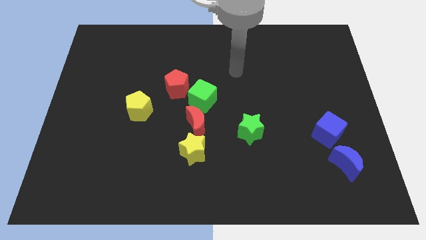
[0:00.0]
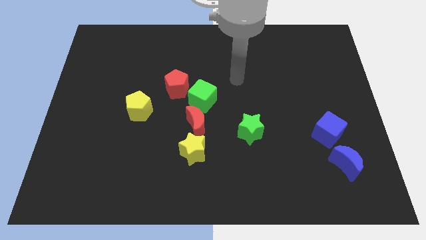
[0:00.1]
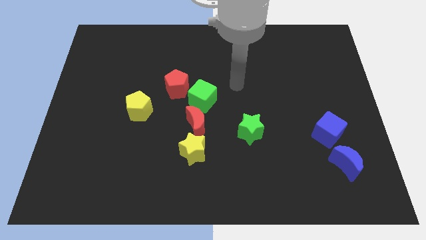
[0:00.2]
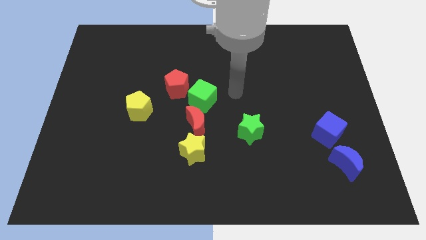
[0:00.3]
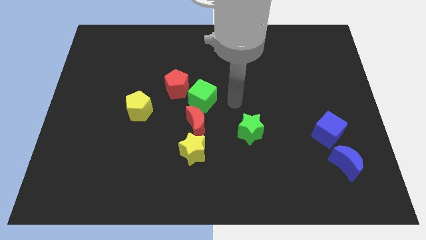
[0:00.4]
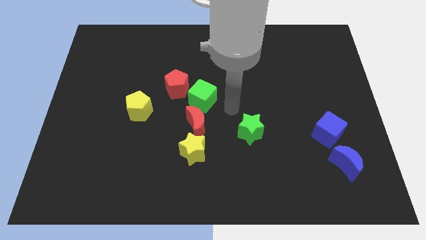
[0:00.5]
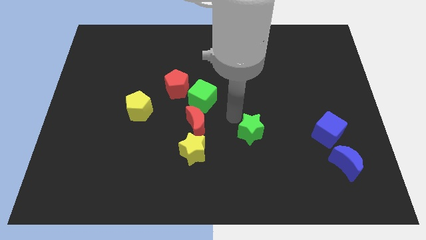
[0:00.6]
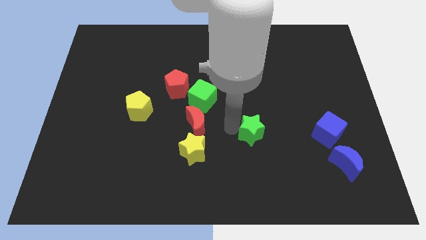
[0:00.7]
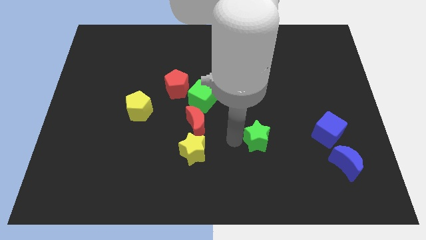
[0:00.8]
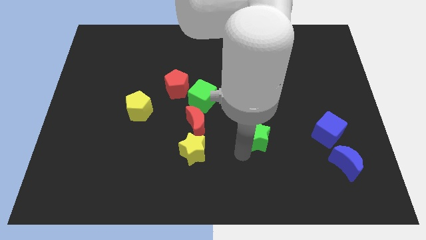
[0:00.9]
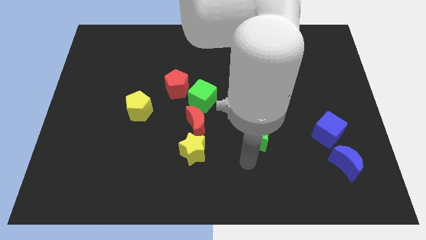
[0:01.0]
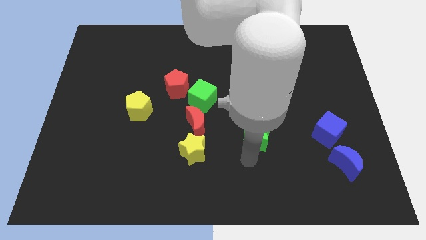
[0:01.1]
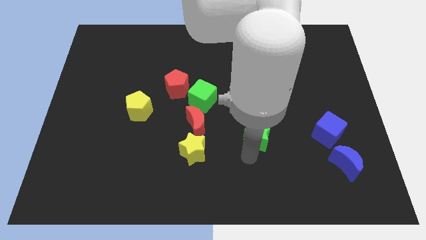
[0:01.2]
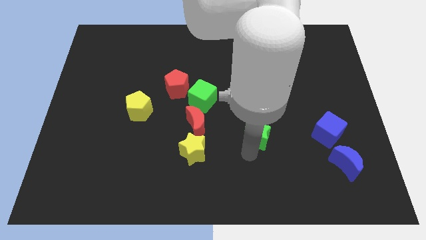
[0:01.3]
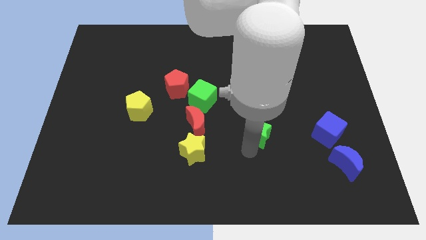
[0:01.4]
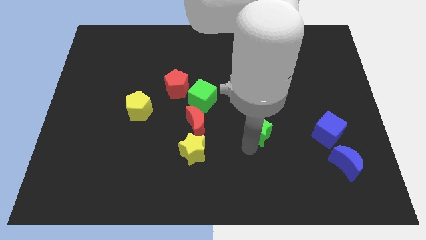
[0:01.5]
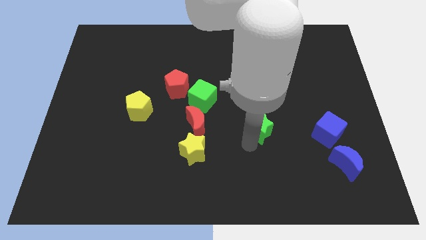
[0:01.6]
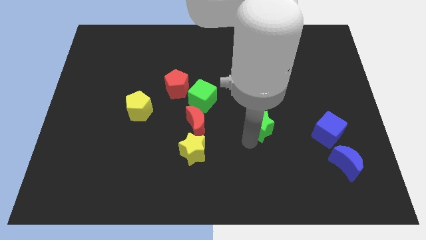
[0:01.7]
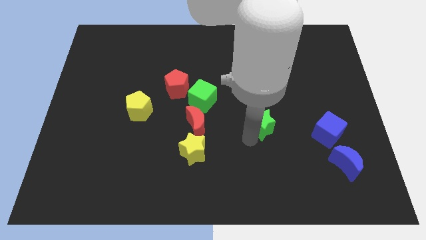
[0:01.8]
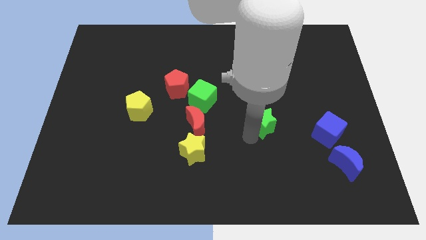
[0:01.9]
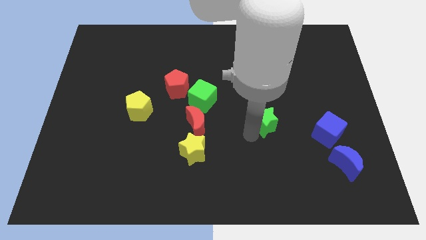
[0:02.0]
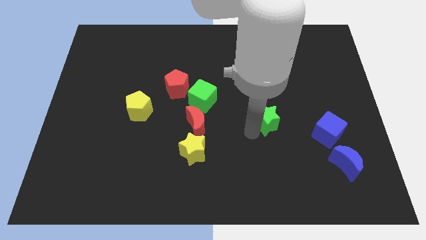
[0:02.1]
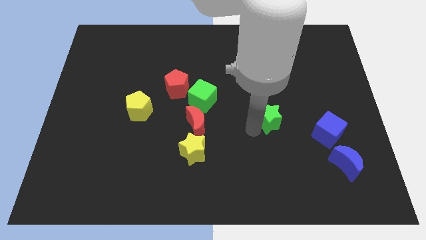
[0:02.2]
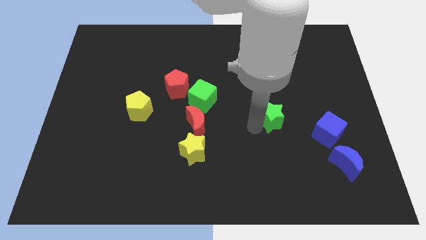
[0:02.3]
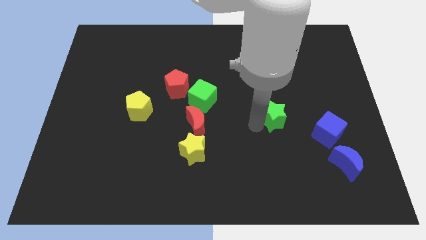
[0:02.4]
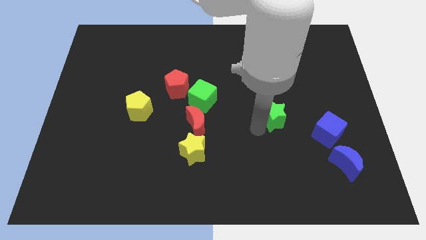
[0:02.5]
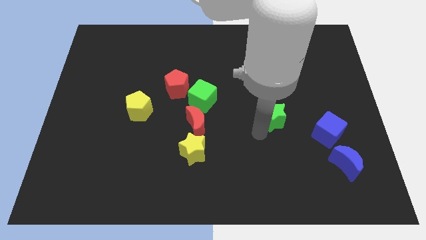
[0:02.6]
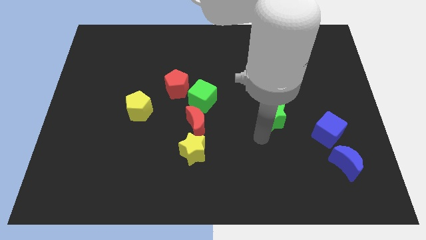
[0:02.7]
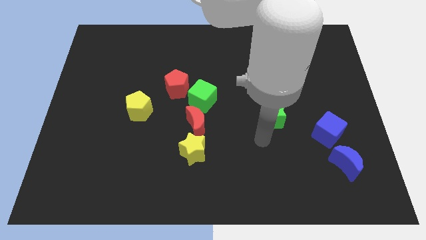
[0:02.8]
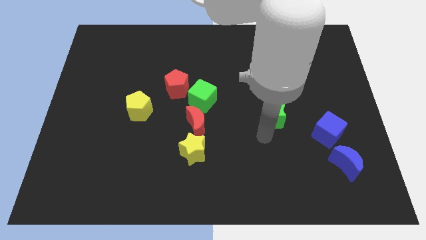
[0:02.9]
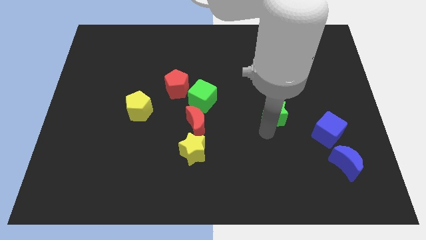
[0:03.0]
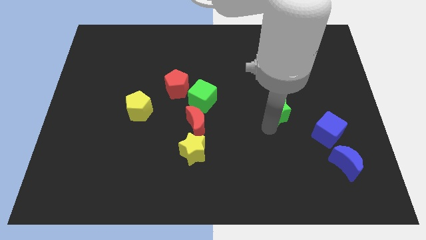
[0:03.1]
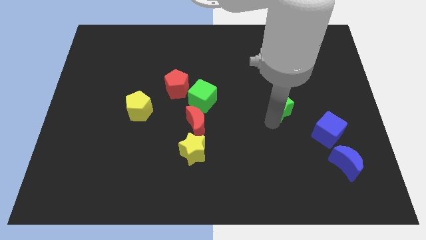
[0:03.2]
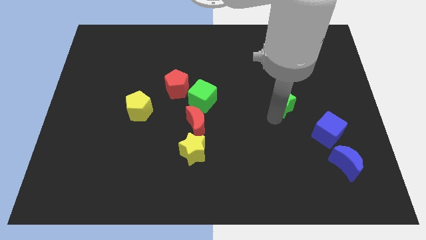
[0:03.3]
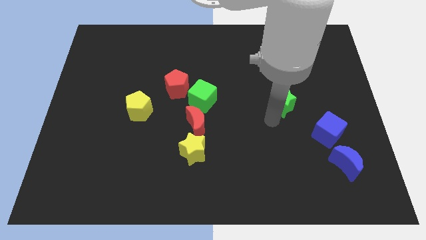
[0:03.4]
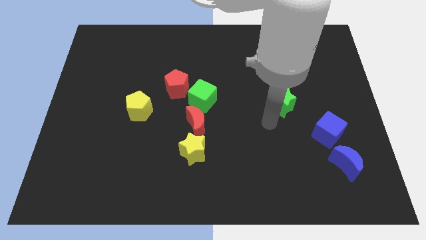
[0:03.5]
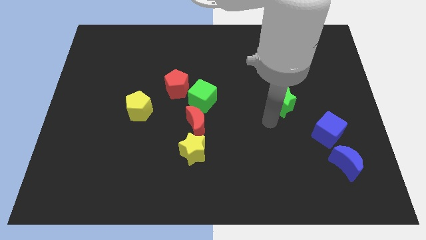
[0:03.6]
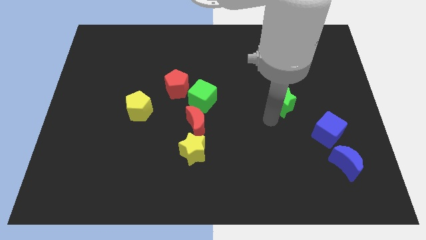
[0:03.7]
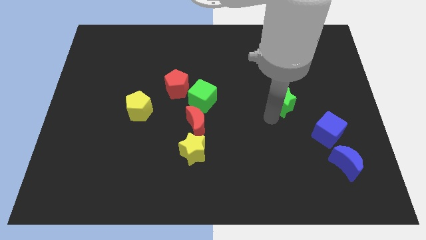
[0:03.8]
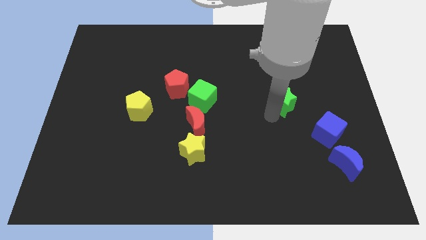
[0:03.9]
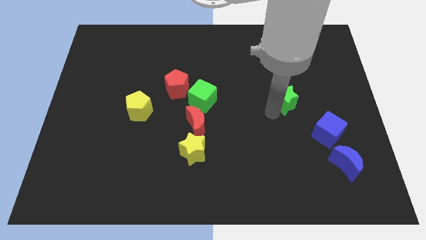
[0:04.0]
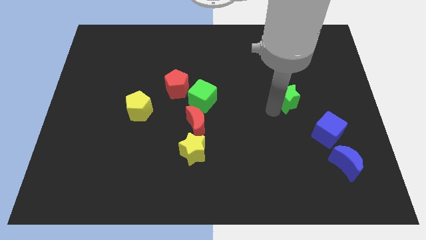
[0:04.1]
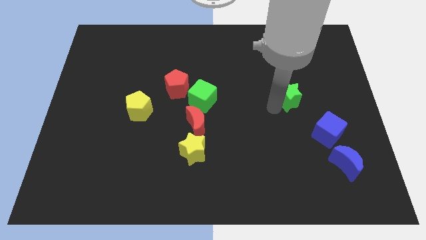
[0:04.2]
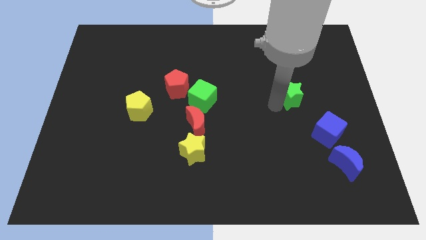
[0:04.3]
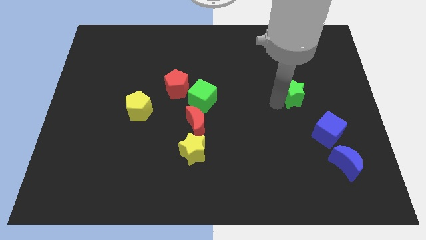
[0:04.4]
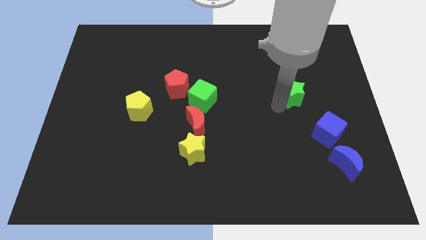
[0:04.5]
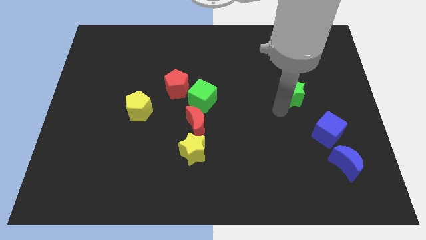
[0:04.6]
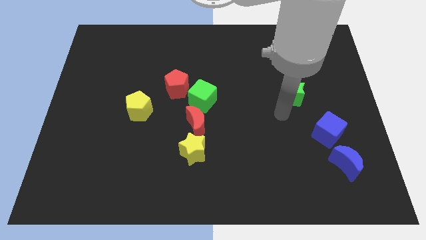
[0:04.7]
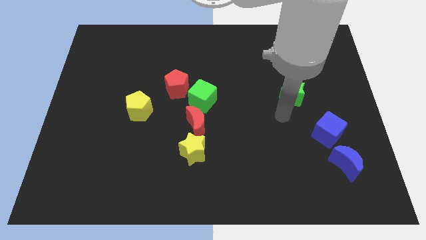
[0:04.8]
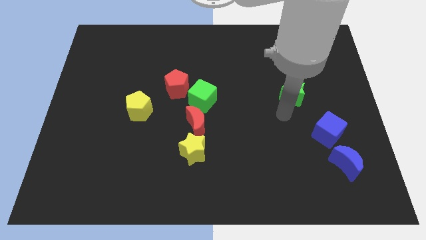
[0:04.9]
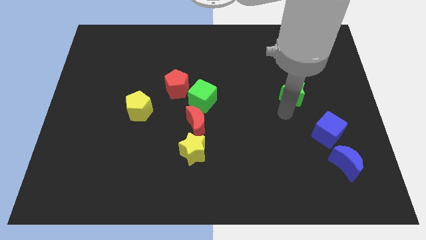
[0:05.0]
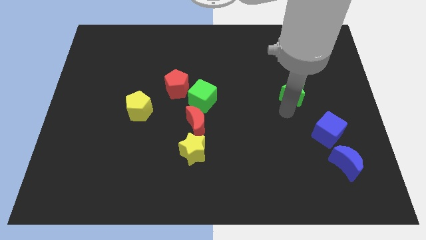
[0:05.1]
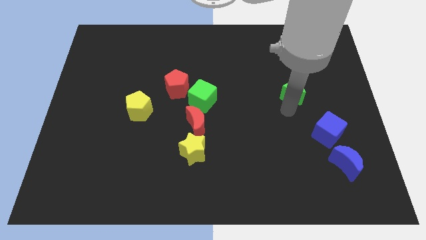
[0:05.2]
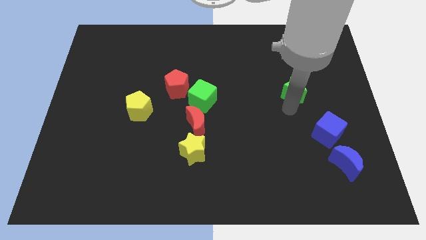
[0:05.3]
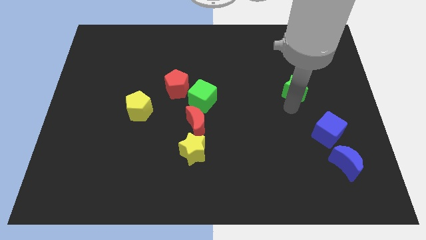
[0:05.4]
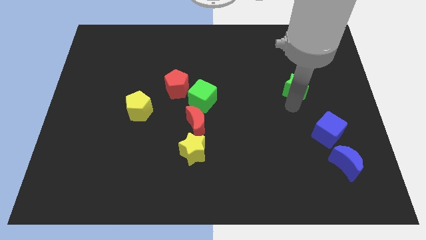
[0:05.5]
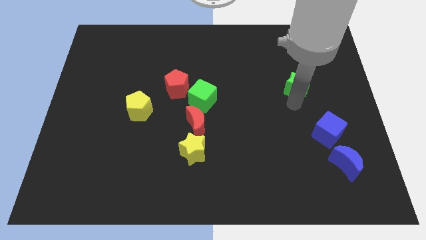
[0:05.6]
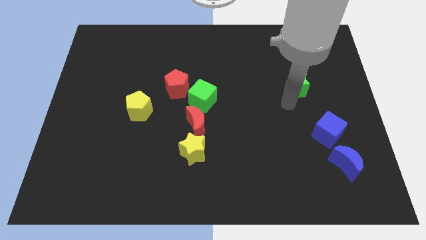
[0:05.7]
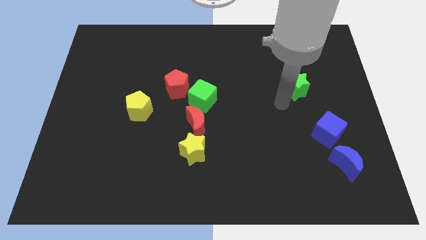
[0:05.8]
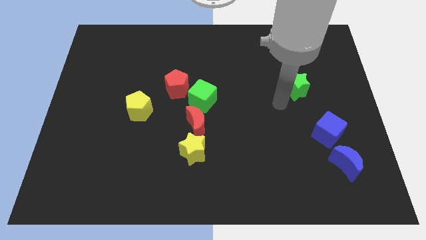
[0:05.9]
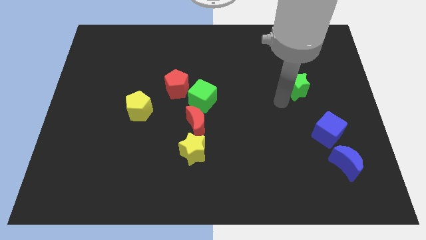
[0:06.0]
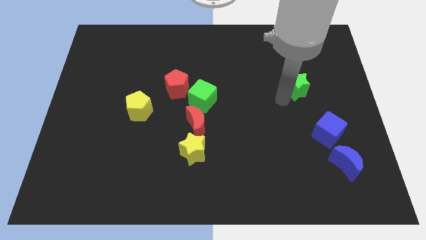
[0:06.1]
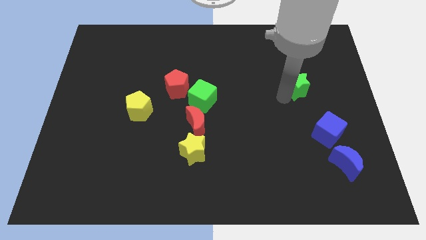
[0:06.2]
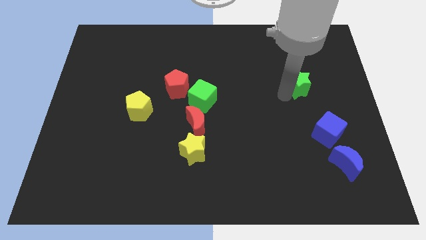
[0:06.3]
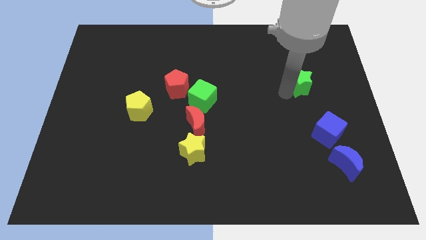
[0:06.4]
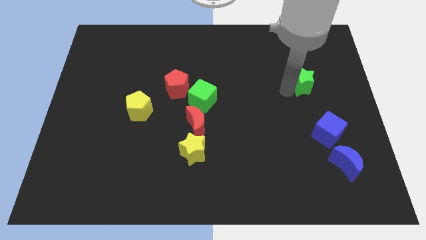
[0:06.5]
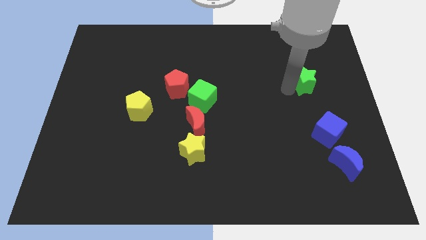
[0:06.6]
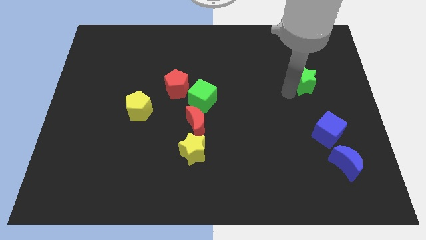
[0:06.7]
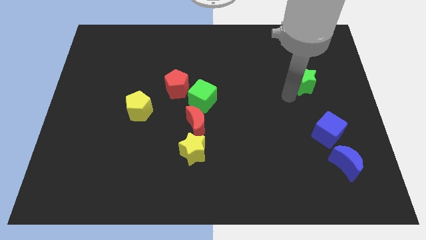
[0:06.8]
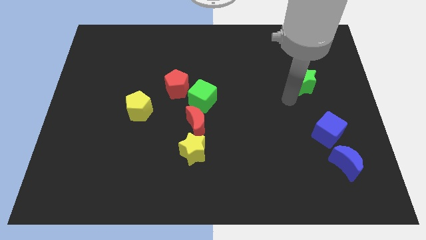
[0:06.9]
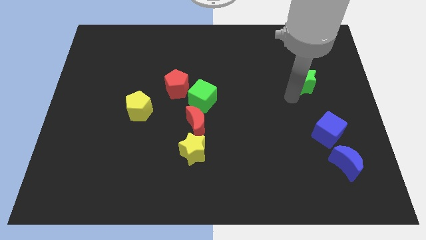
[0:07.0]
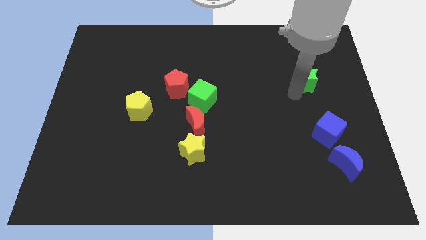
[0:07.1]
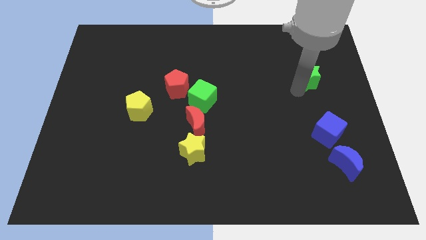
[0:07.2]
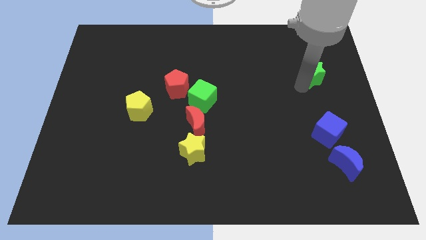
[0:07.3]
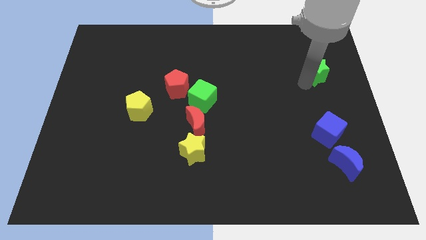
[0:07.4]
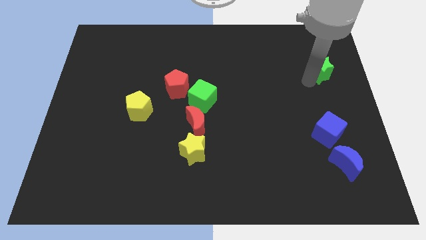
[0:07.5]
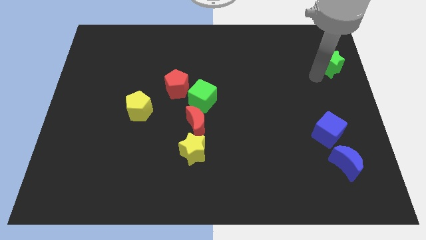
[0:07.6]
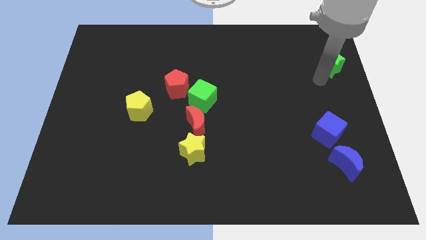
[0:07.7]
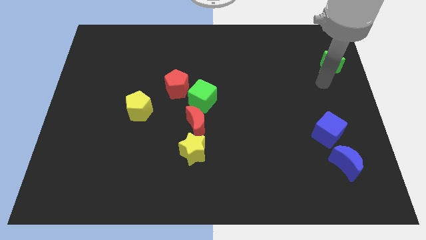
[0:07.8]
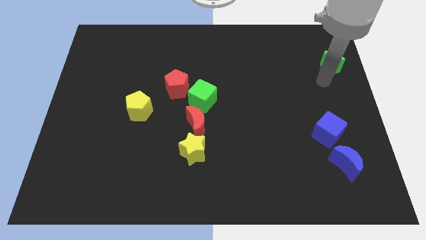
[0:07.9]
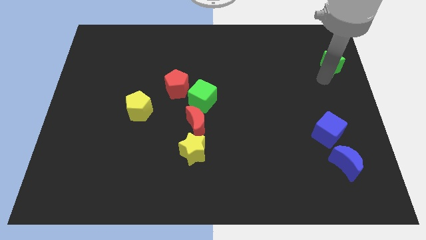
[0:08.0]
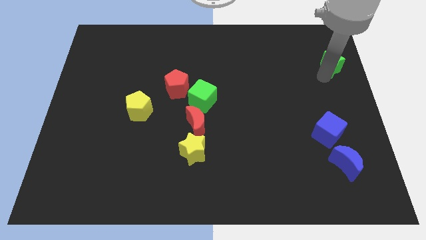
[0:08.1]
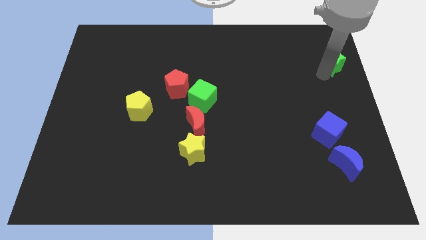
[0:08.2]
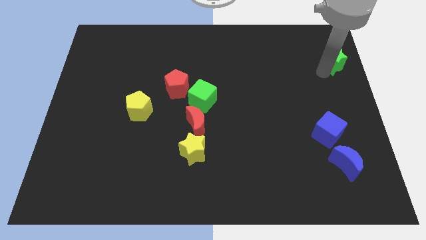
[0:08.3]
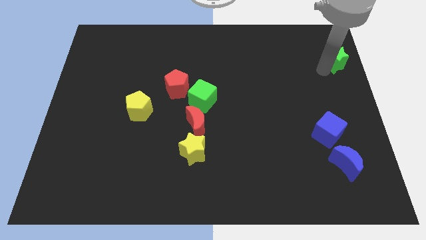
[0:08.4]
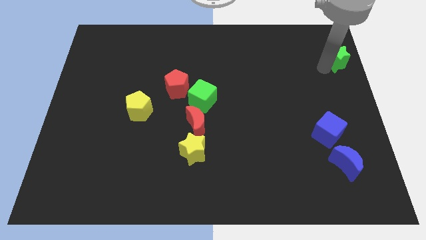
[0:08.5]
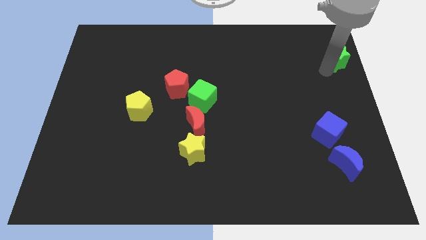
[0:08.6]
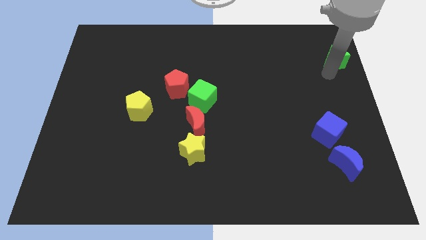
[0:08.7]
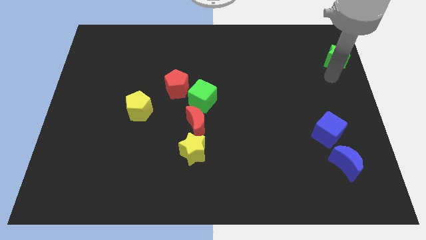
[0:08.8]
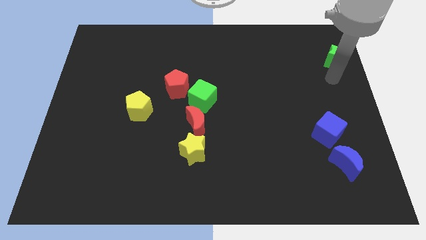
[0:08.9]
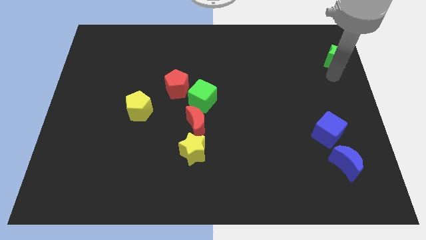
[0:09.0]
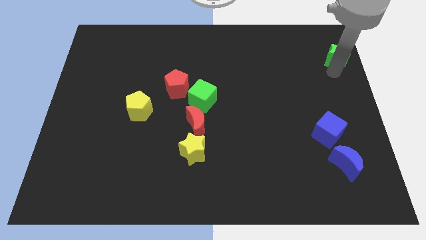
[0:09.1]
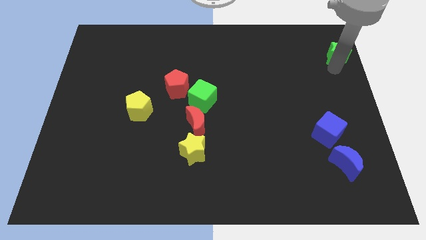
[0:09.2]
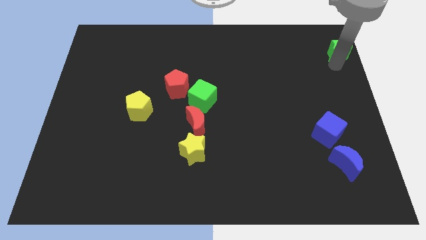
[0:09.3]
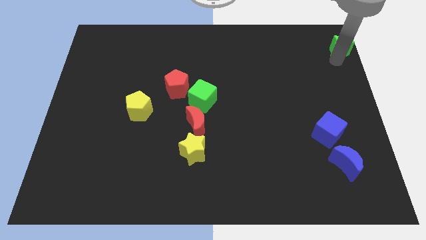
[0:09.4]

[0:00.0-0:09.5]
move the green star to the upper right corner
